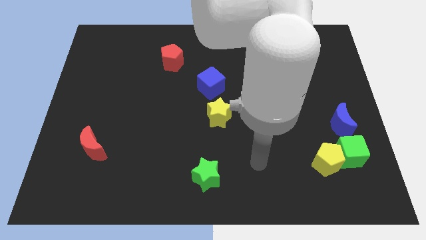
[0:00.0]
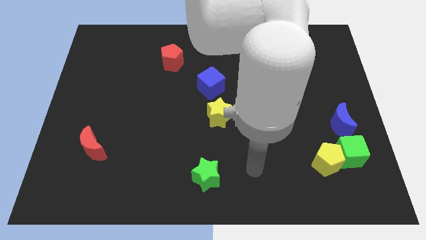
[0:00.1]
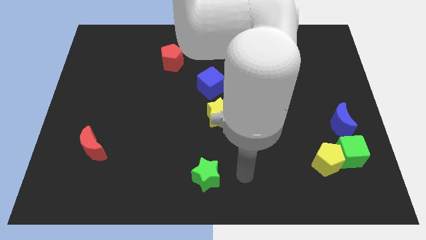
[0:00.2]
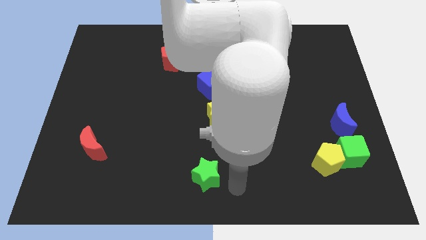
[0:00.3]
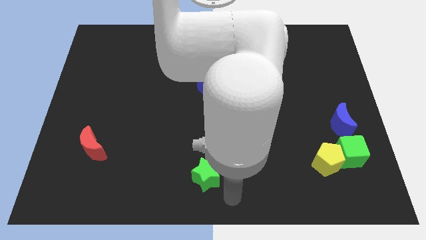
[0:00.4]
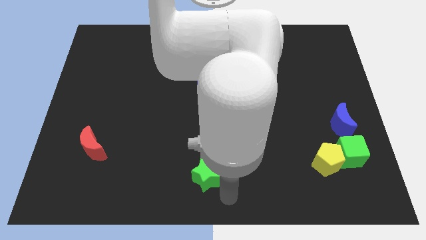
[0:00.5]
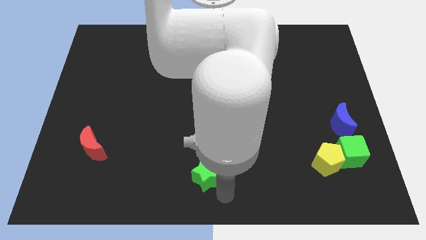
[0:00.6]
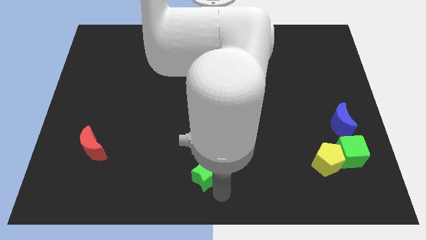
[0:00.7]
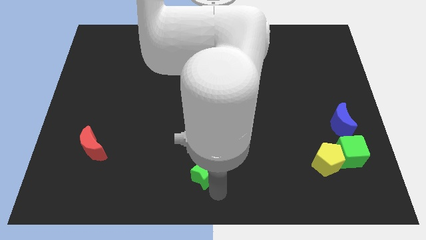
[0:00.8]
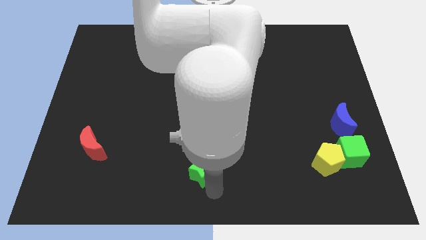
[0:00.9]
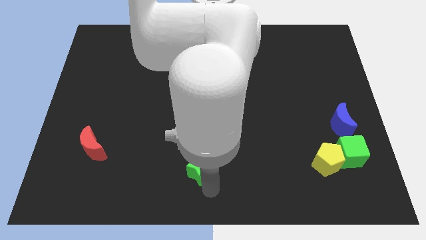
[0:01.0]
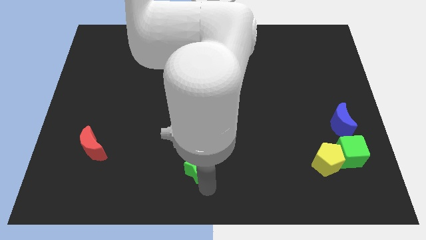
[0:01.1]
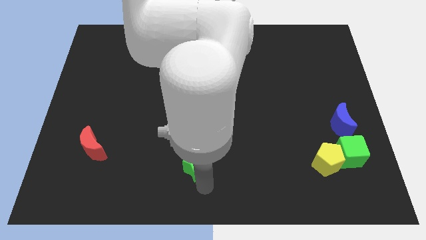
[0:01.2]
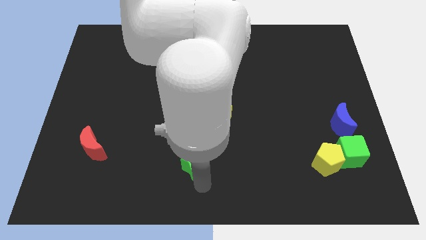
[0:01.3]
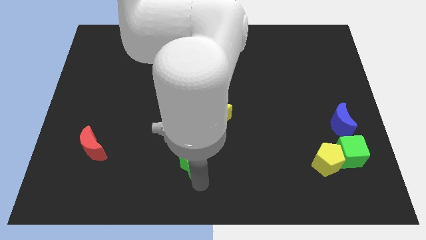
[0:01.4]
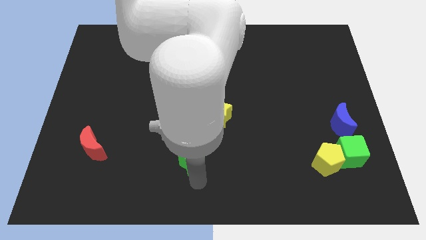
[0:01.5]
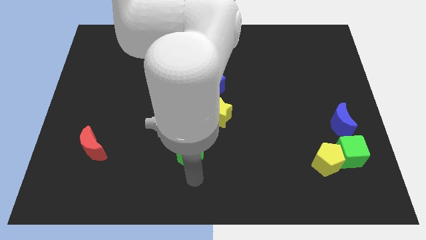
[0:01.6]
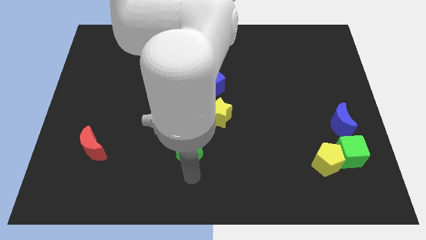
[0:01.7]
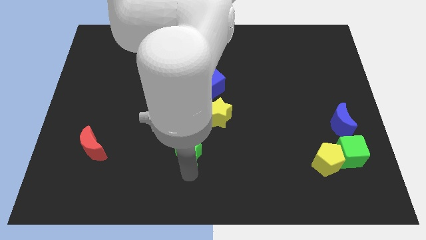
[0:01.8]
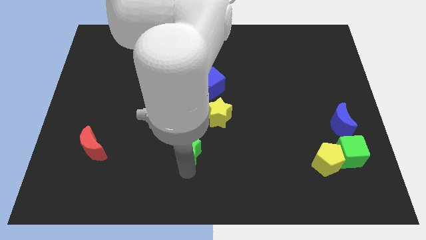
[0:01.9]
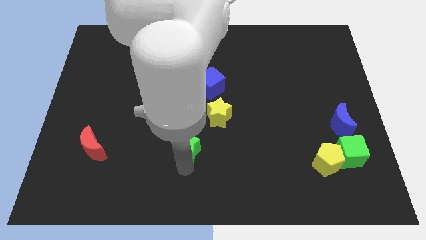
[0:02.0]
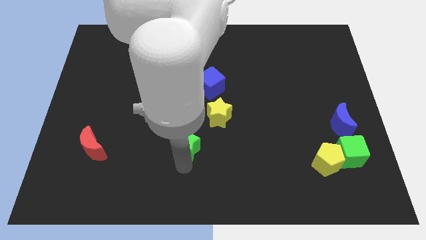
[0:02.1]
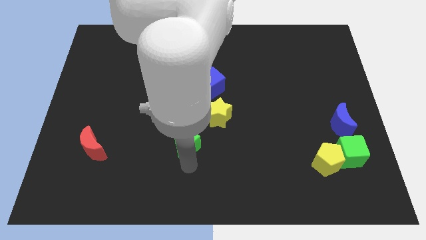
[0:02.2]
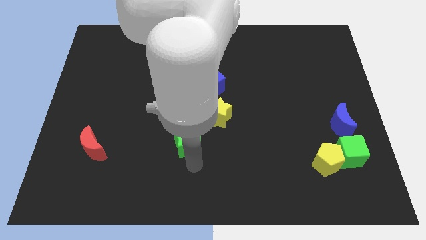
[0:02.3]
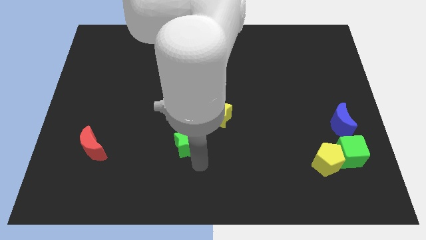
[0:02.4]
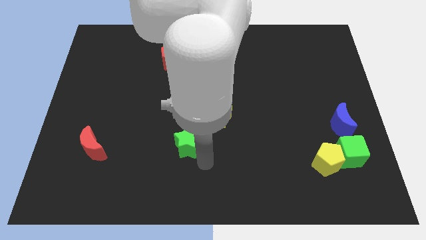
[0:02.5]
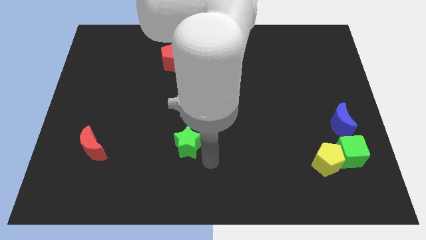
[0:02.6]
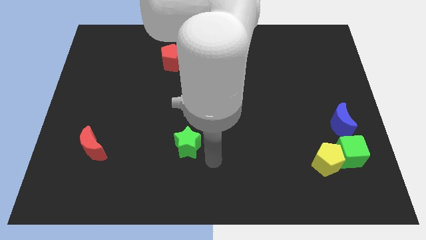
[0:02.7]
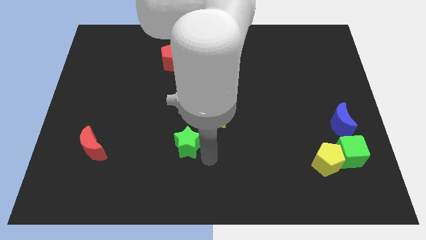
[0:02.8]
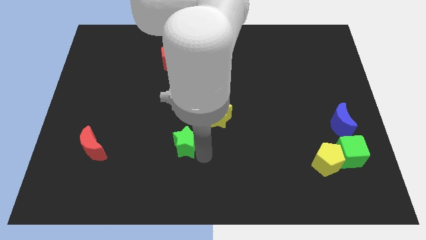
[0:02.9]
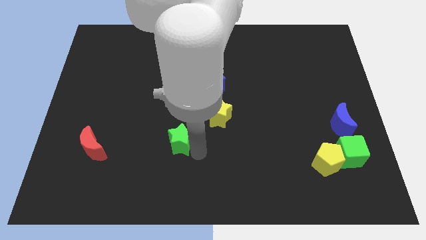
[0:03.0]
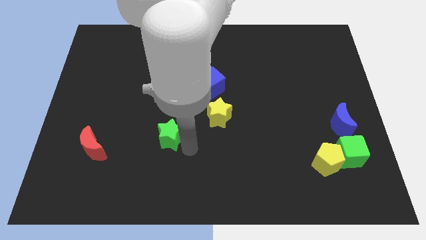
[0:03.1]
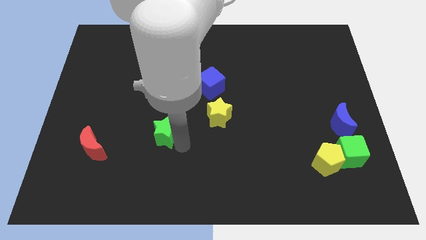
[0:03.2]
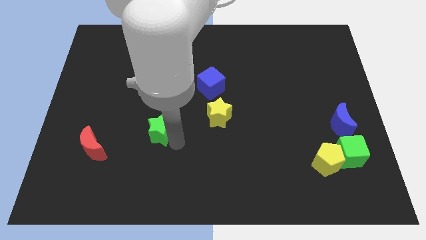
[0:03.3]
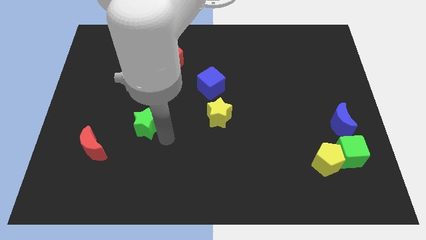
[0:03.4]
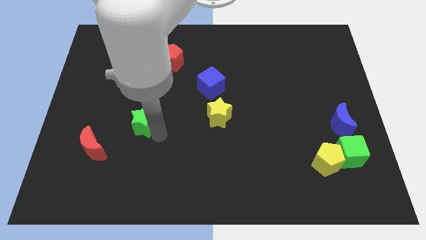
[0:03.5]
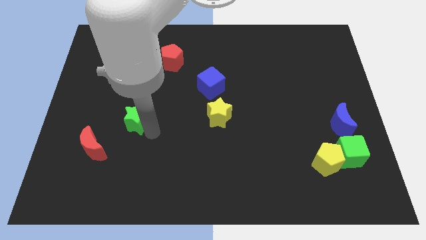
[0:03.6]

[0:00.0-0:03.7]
push the green star up and then to the left

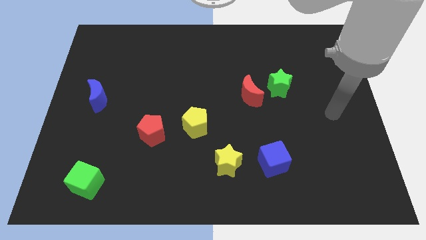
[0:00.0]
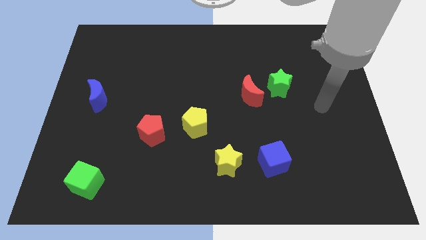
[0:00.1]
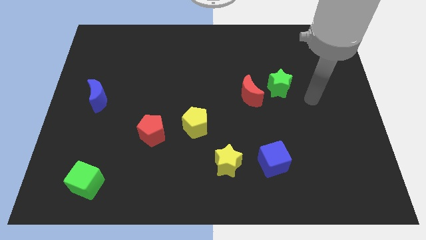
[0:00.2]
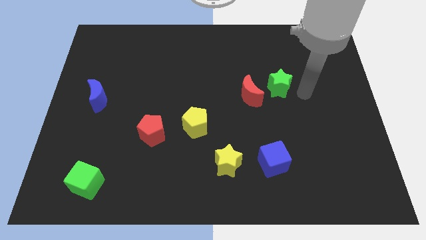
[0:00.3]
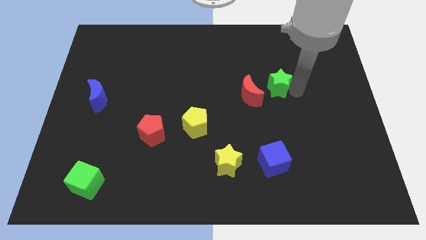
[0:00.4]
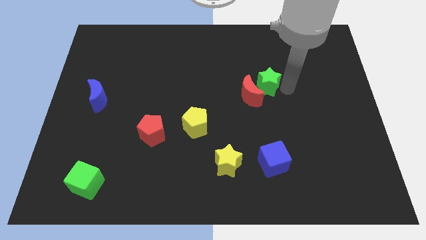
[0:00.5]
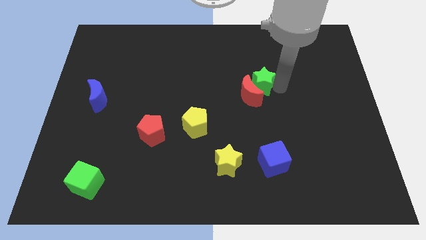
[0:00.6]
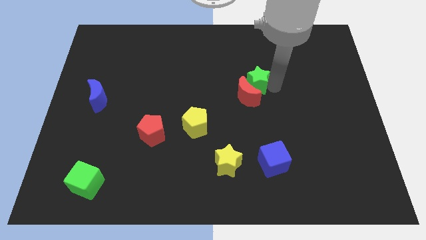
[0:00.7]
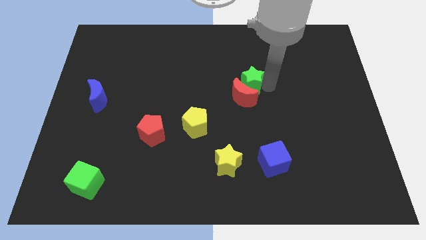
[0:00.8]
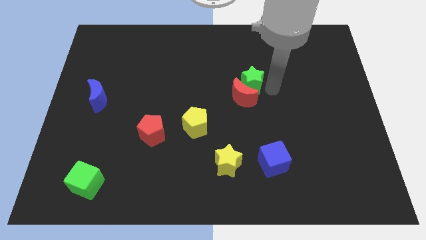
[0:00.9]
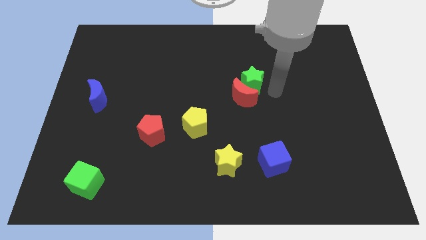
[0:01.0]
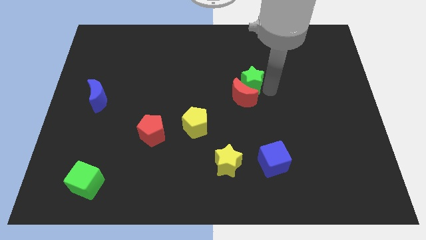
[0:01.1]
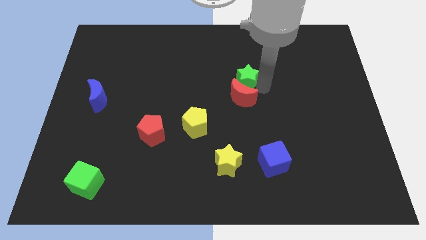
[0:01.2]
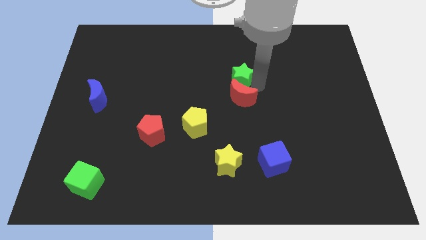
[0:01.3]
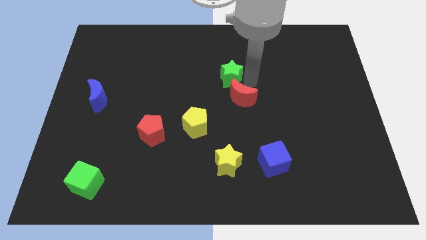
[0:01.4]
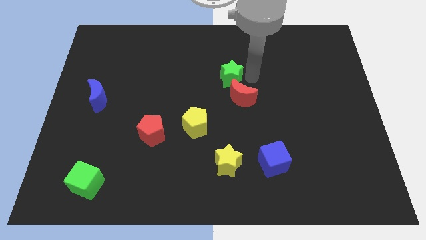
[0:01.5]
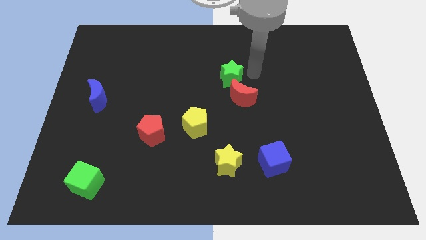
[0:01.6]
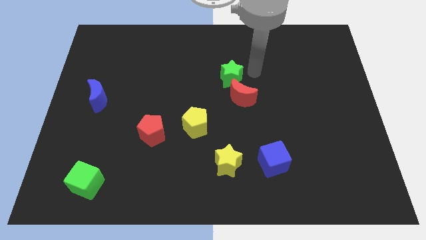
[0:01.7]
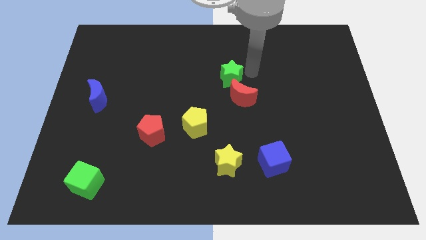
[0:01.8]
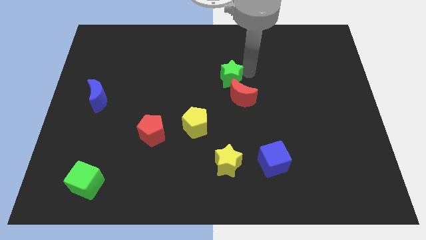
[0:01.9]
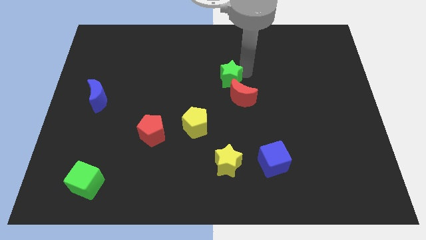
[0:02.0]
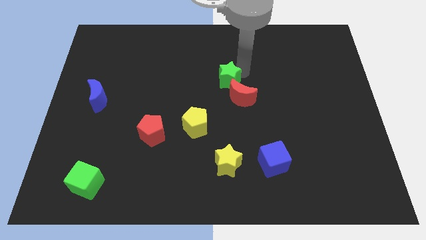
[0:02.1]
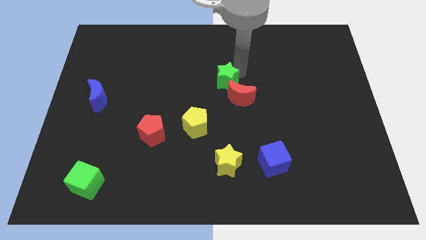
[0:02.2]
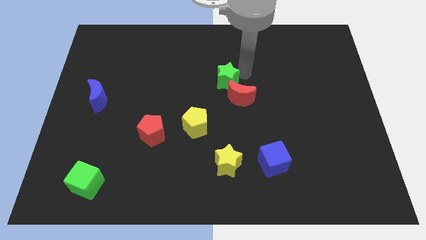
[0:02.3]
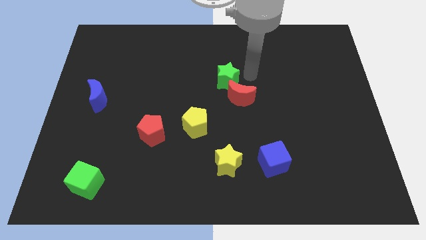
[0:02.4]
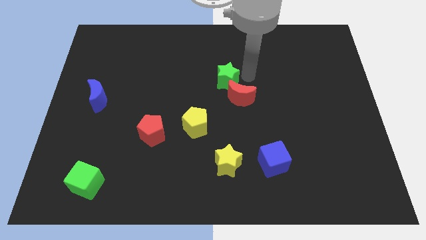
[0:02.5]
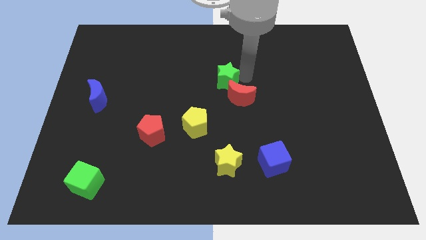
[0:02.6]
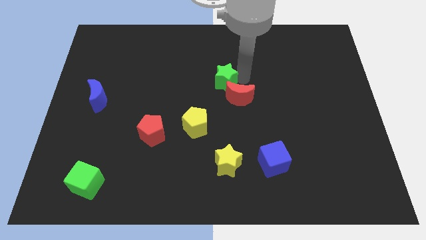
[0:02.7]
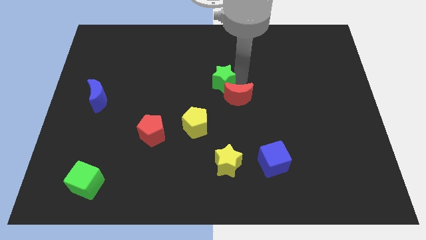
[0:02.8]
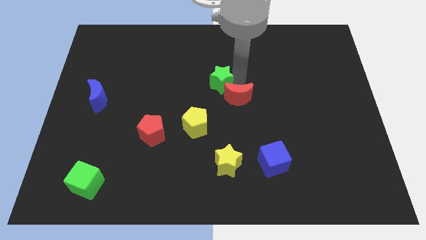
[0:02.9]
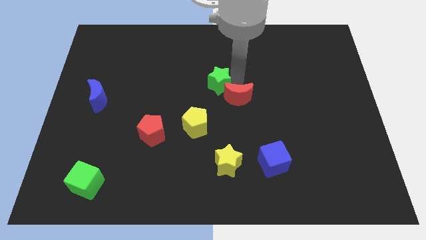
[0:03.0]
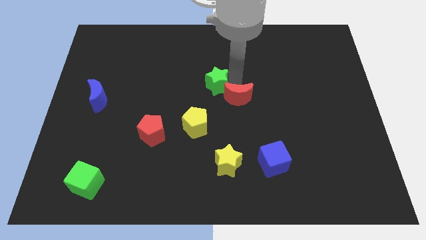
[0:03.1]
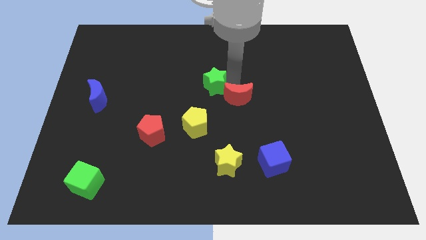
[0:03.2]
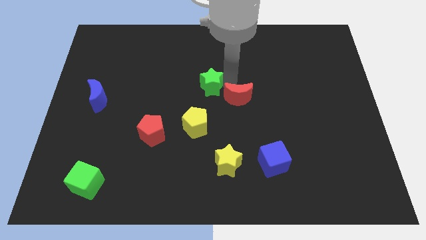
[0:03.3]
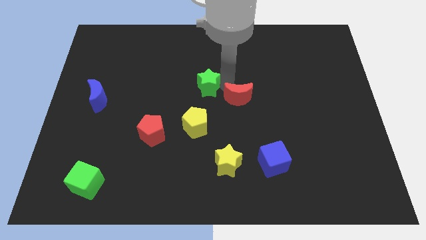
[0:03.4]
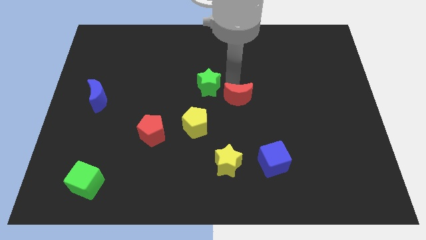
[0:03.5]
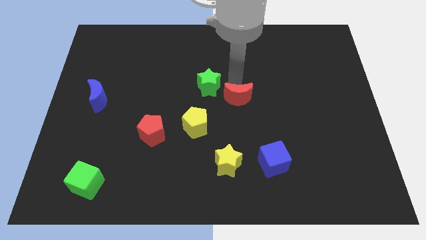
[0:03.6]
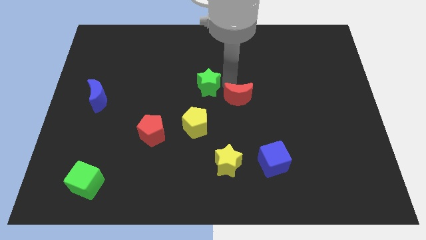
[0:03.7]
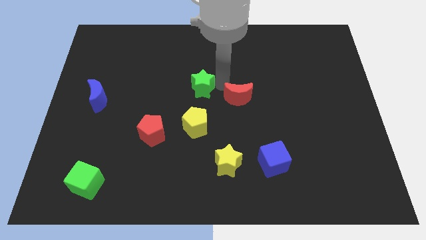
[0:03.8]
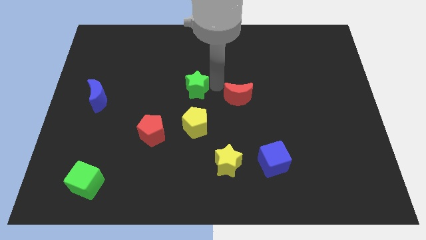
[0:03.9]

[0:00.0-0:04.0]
move the green star left

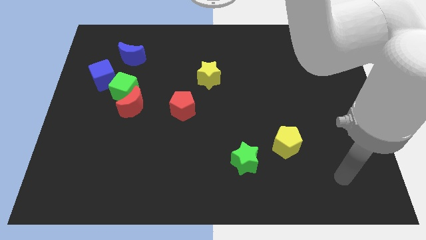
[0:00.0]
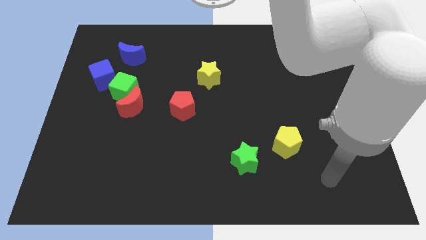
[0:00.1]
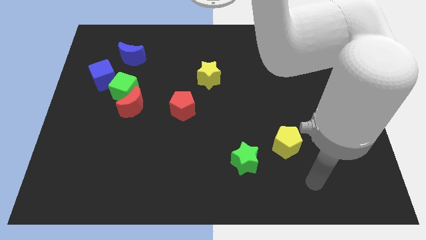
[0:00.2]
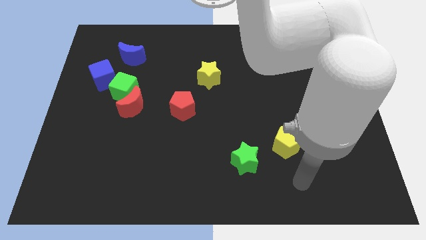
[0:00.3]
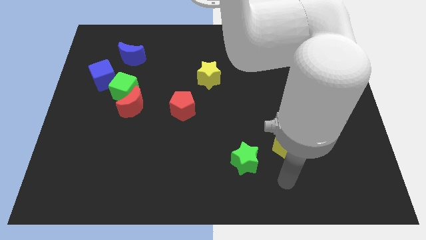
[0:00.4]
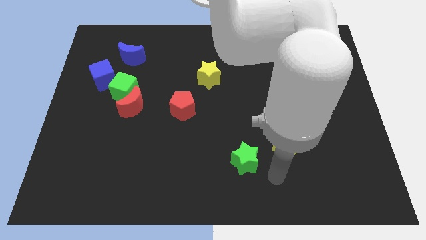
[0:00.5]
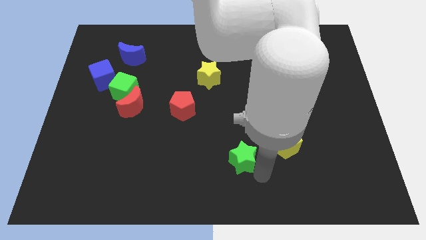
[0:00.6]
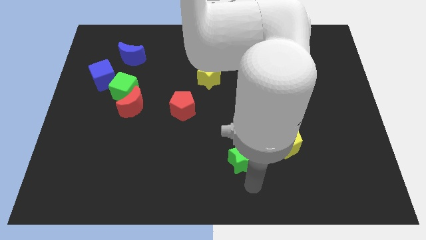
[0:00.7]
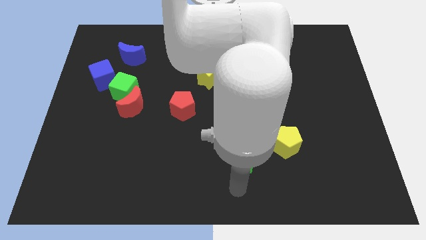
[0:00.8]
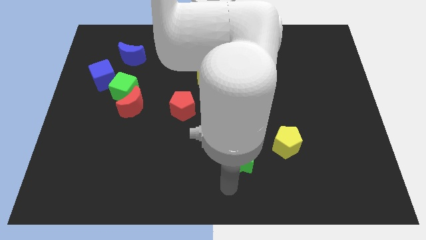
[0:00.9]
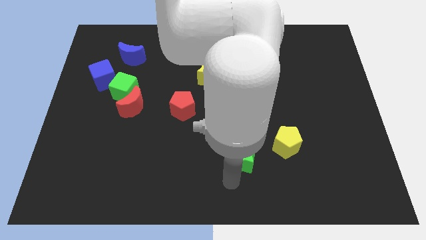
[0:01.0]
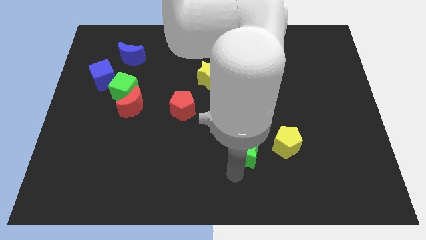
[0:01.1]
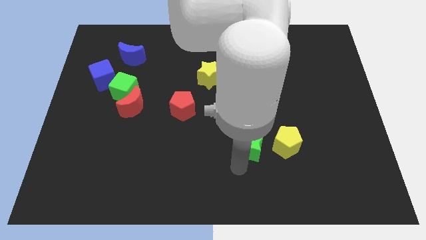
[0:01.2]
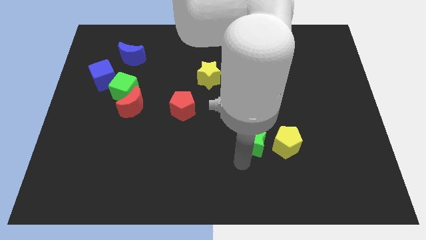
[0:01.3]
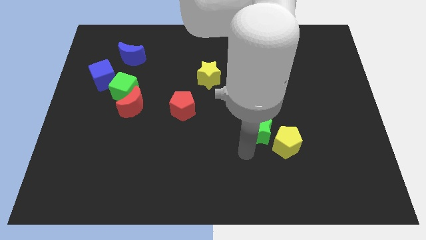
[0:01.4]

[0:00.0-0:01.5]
move the green star somewhat up and then to the right
